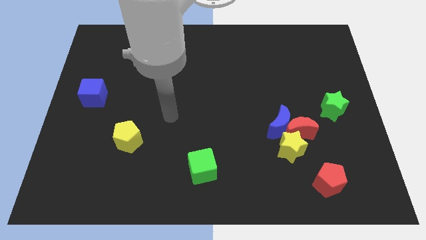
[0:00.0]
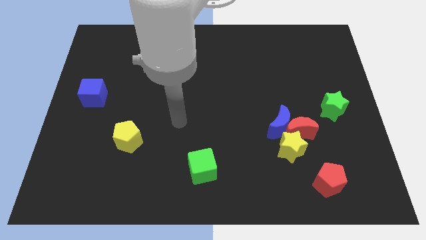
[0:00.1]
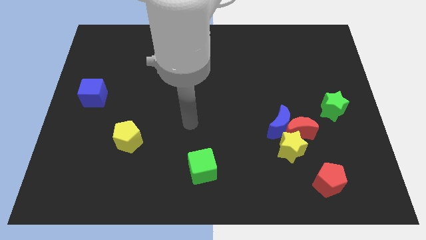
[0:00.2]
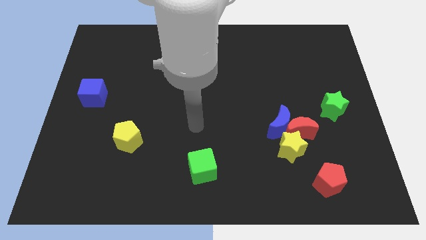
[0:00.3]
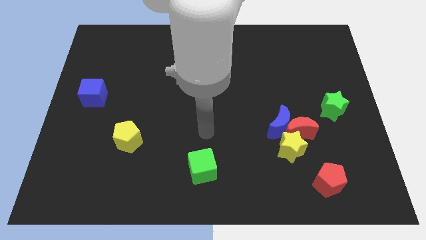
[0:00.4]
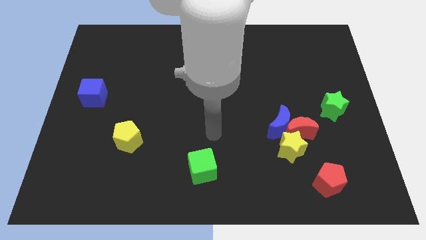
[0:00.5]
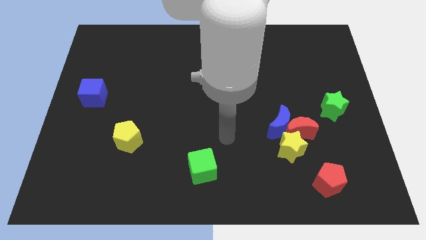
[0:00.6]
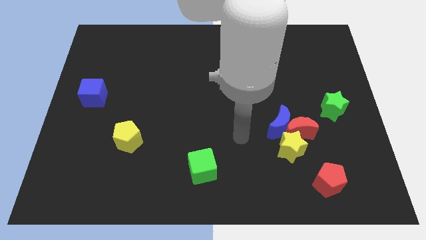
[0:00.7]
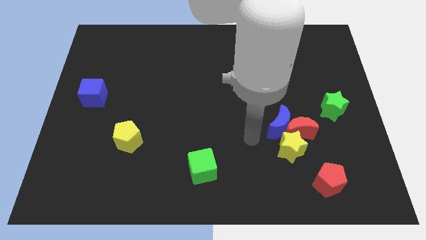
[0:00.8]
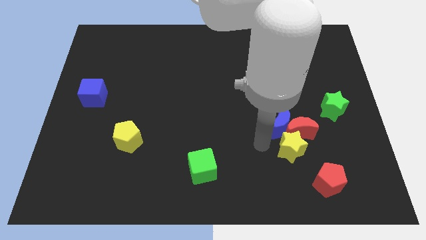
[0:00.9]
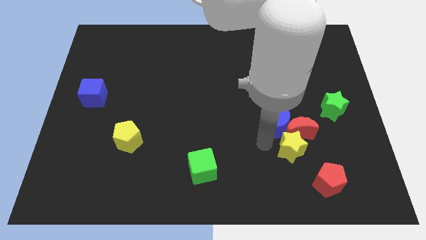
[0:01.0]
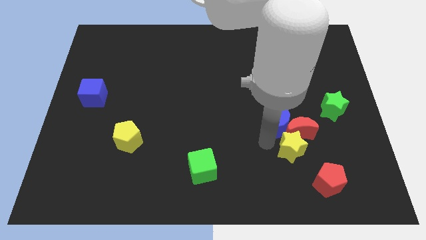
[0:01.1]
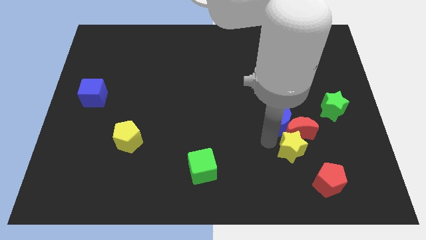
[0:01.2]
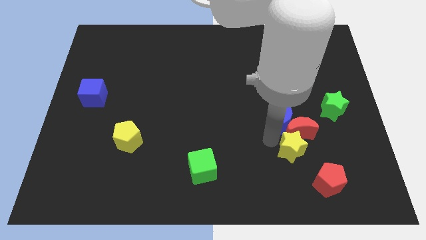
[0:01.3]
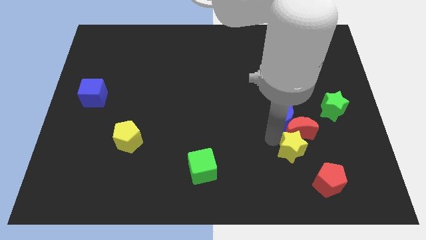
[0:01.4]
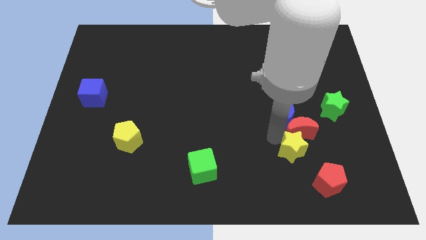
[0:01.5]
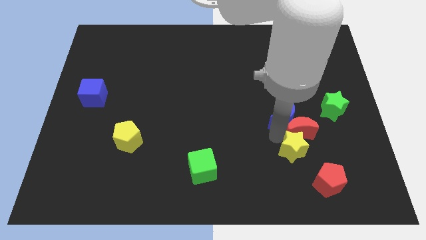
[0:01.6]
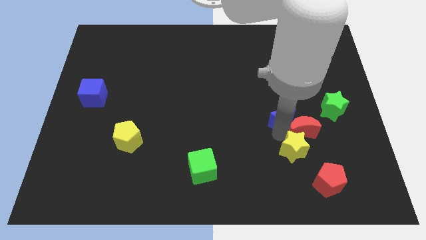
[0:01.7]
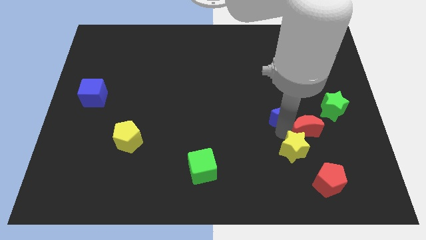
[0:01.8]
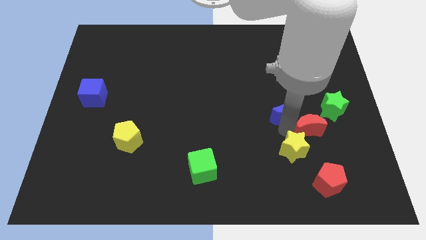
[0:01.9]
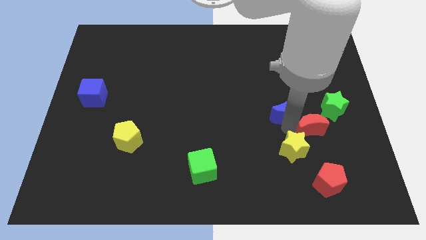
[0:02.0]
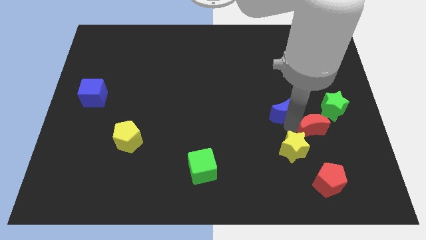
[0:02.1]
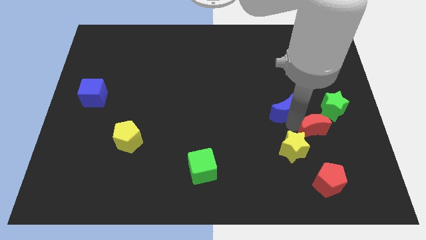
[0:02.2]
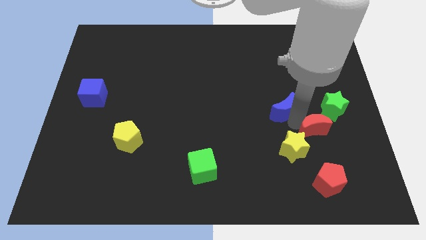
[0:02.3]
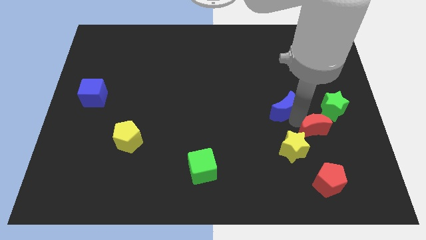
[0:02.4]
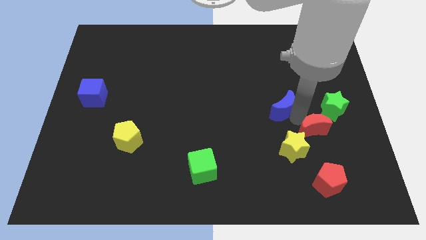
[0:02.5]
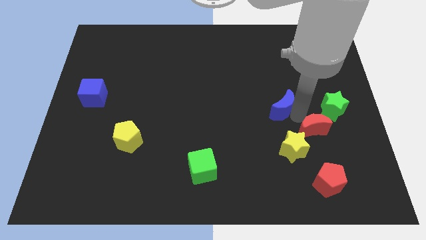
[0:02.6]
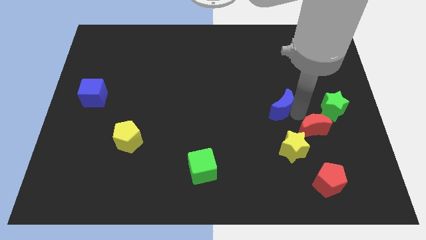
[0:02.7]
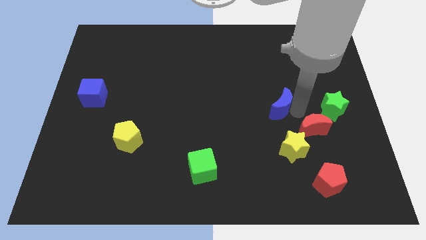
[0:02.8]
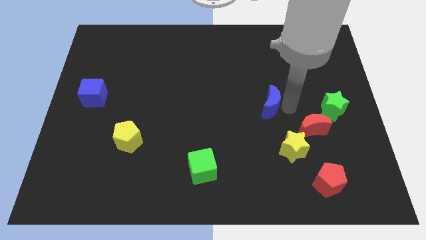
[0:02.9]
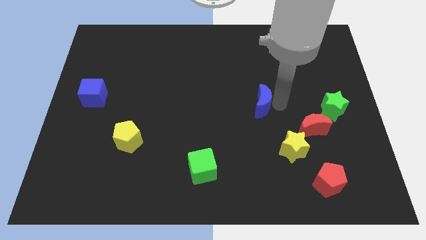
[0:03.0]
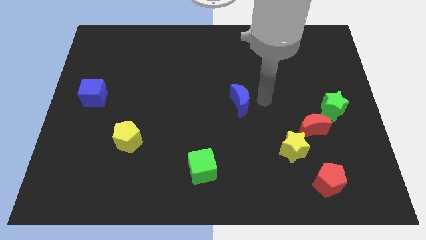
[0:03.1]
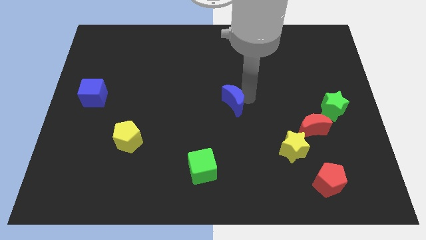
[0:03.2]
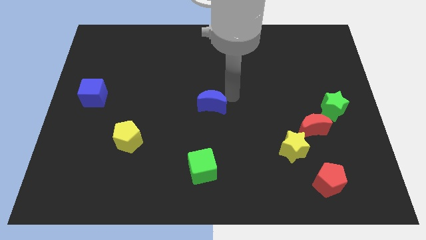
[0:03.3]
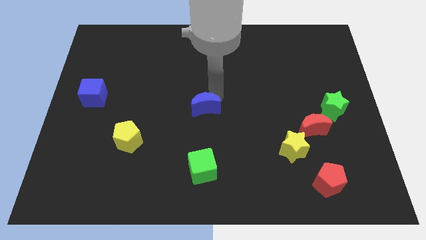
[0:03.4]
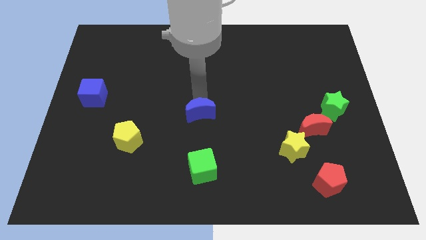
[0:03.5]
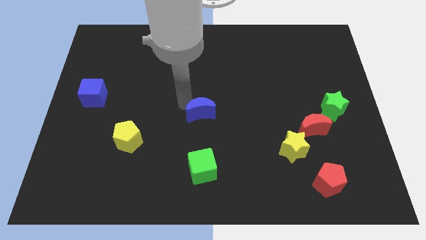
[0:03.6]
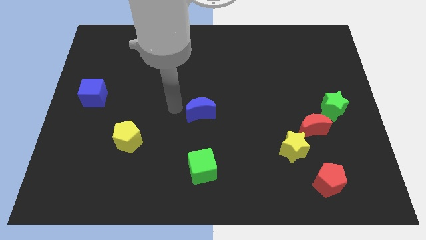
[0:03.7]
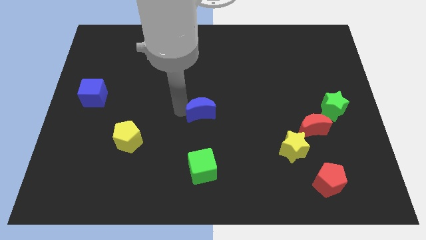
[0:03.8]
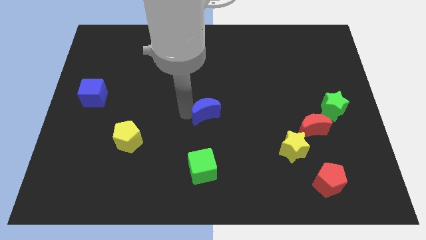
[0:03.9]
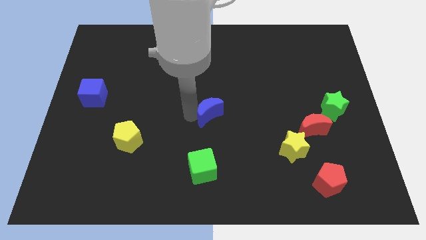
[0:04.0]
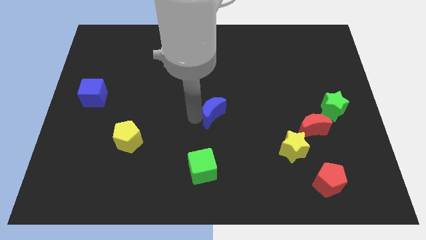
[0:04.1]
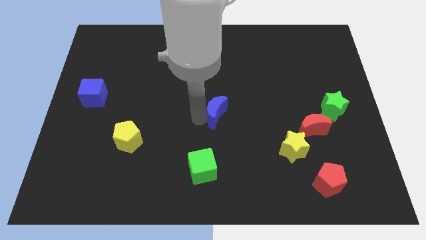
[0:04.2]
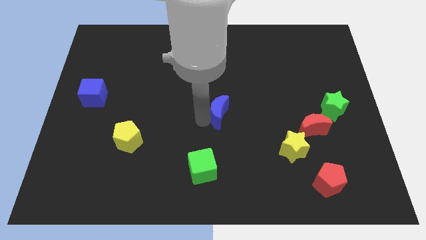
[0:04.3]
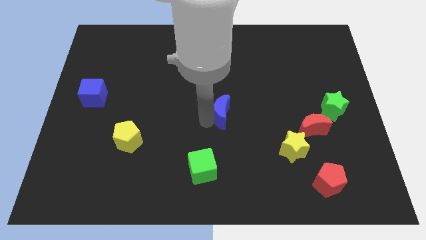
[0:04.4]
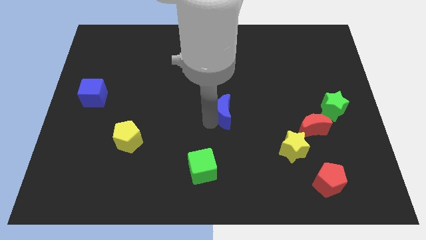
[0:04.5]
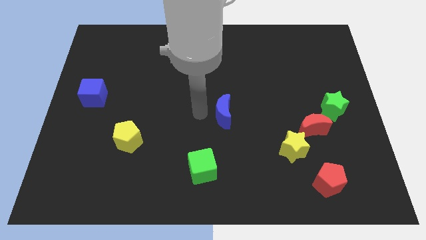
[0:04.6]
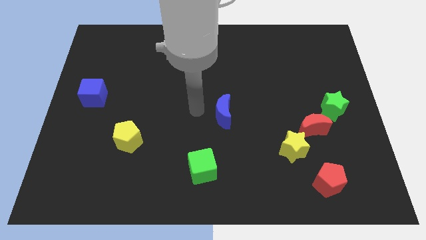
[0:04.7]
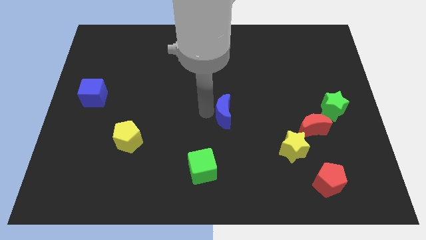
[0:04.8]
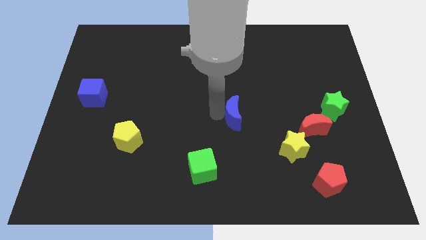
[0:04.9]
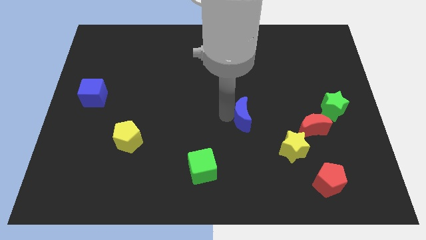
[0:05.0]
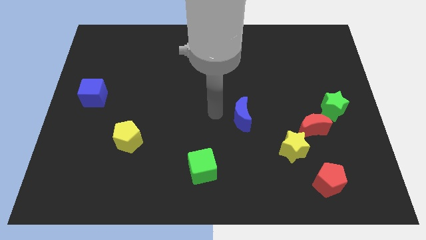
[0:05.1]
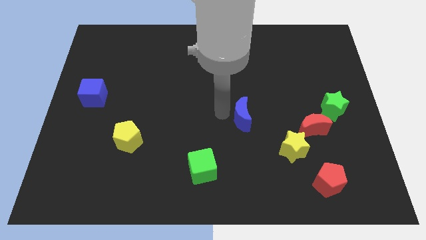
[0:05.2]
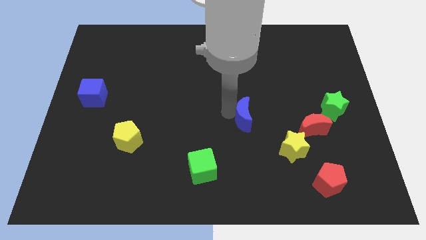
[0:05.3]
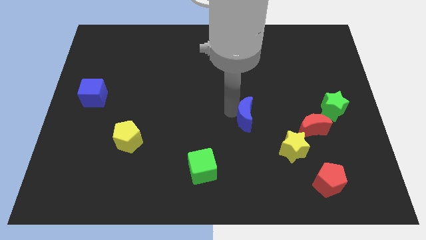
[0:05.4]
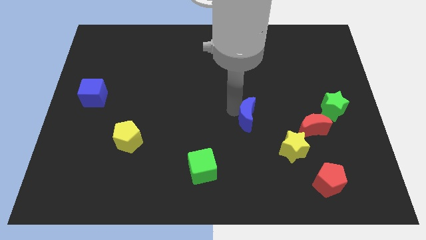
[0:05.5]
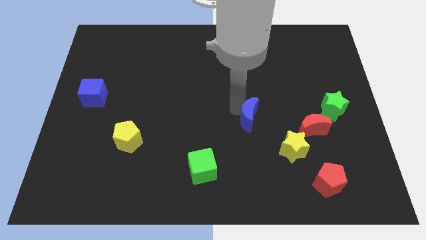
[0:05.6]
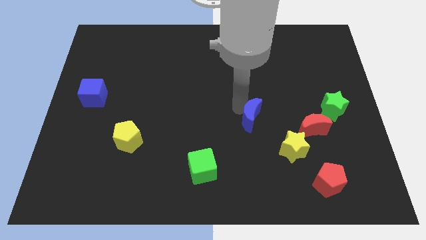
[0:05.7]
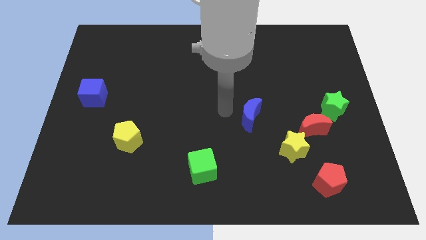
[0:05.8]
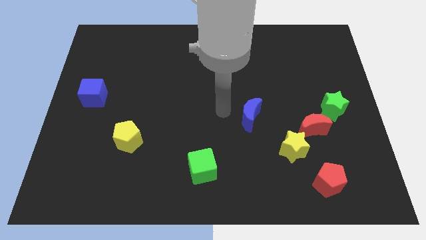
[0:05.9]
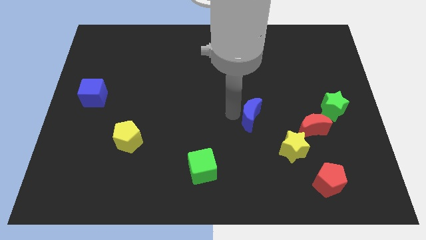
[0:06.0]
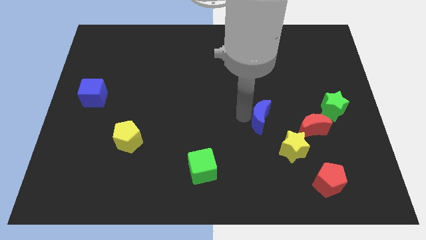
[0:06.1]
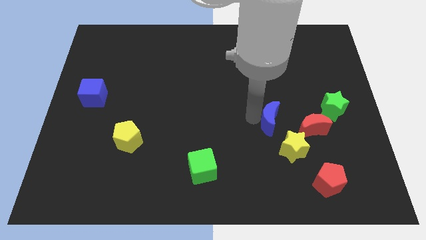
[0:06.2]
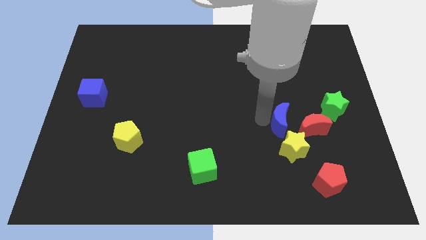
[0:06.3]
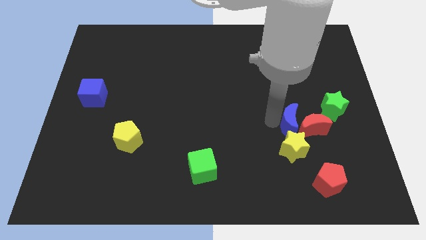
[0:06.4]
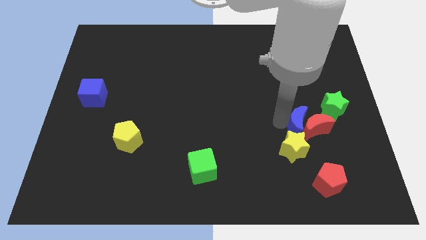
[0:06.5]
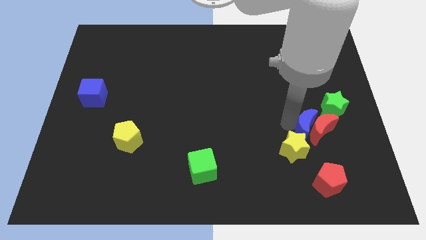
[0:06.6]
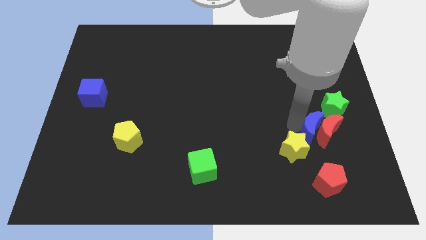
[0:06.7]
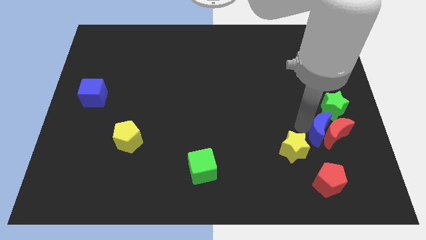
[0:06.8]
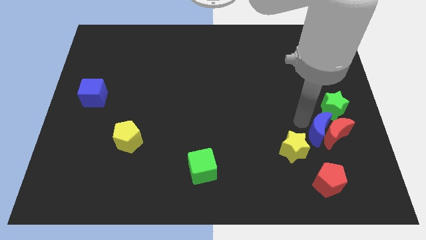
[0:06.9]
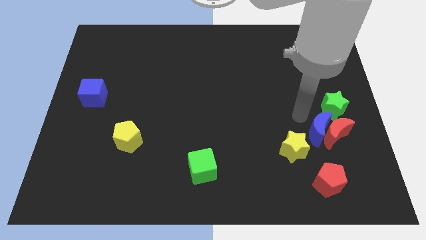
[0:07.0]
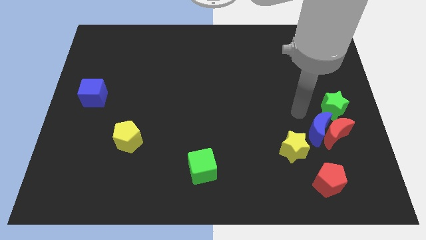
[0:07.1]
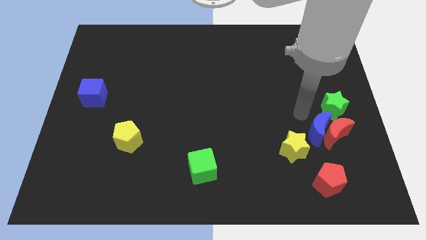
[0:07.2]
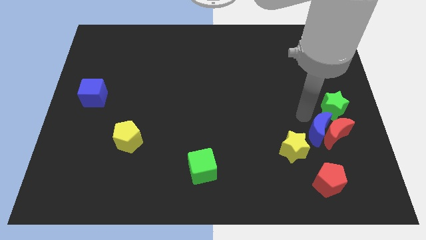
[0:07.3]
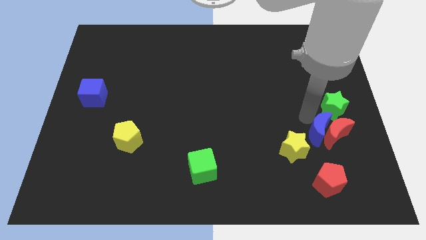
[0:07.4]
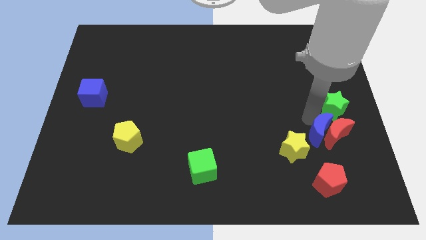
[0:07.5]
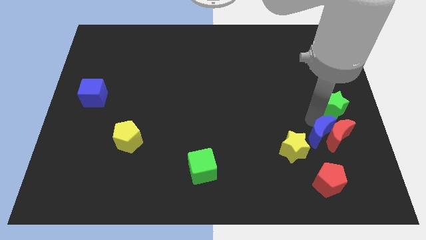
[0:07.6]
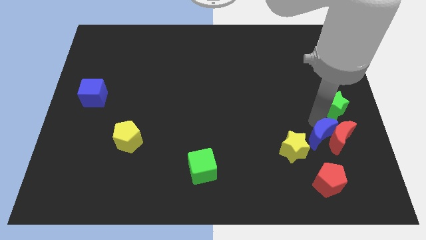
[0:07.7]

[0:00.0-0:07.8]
slightly move the blue moon diagonally down and right
